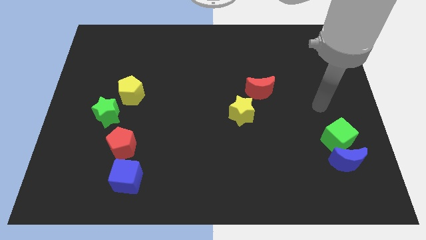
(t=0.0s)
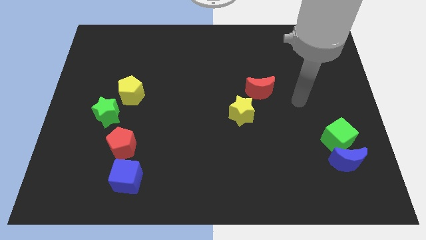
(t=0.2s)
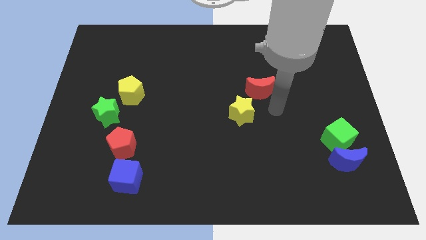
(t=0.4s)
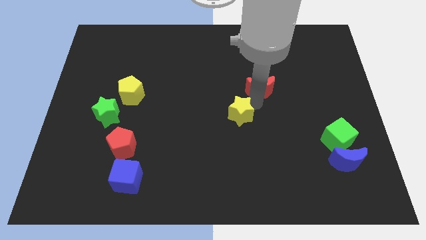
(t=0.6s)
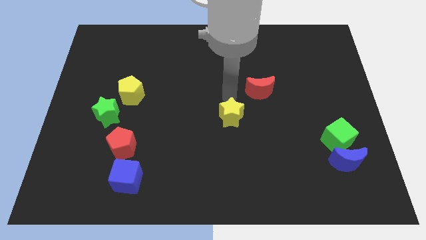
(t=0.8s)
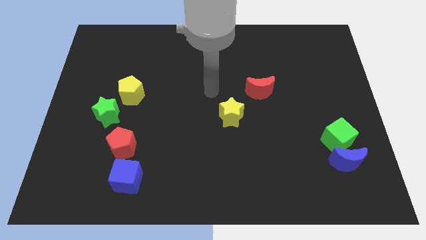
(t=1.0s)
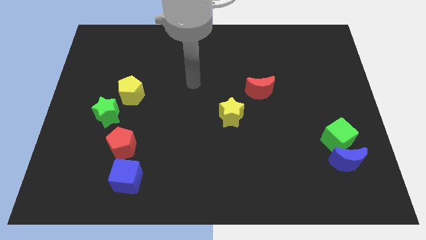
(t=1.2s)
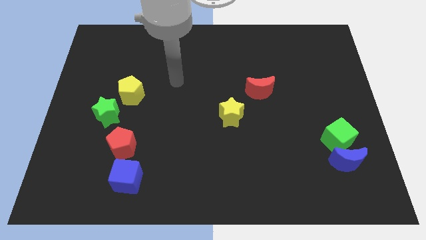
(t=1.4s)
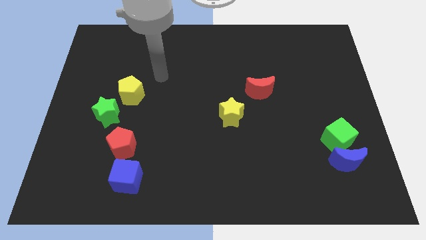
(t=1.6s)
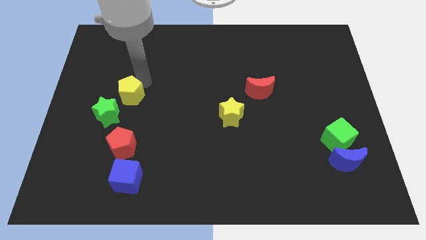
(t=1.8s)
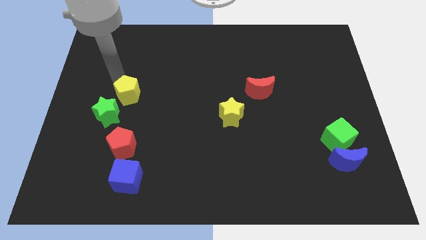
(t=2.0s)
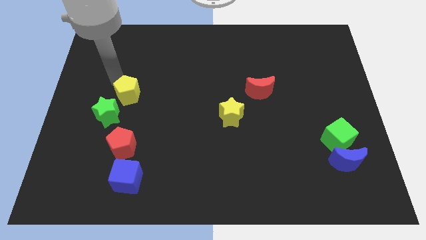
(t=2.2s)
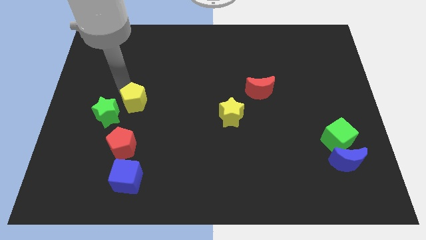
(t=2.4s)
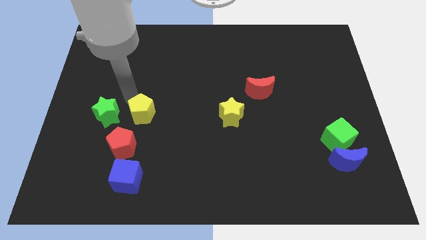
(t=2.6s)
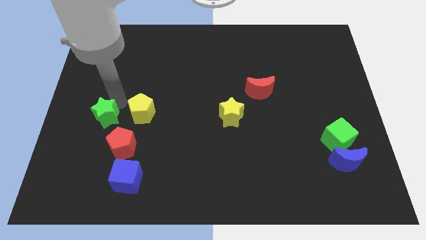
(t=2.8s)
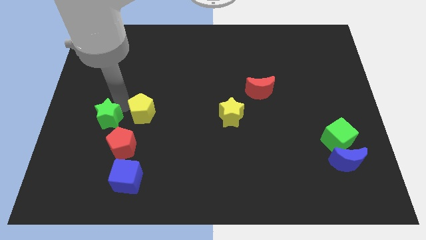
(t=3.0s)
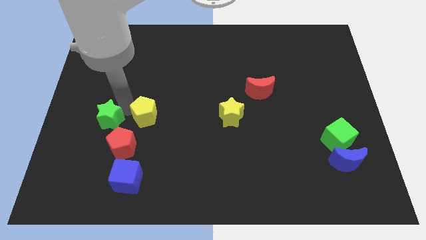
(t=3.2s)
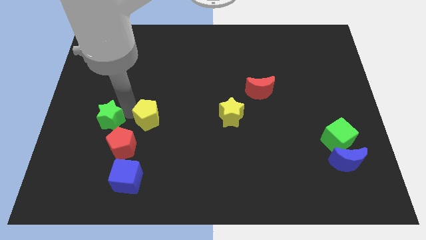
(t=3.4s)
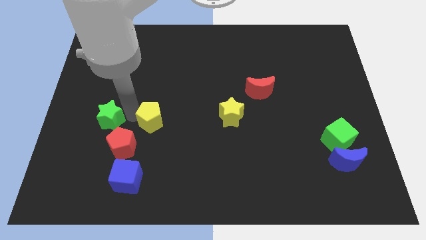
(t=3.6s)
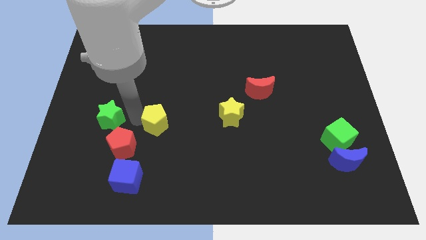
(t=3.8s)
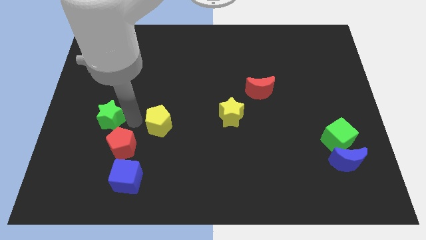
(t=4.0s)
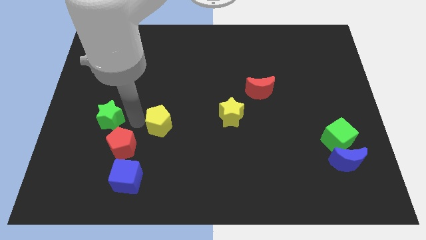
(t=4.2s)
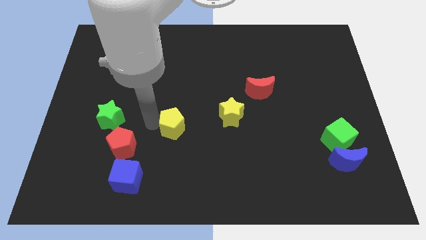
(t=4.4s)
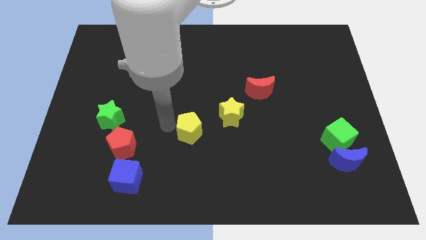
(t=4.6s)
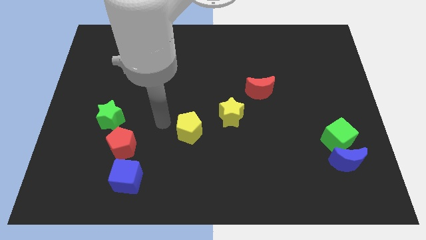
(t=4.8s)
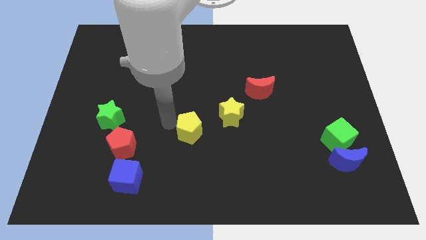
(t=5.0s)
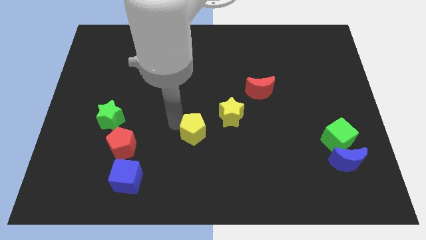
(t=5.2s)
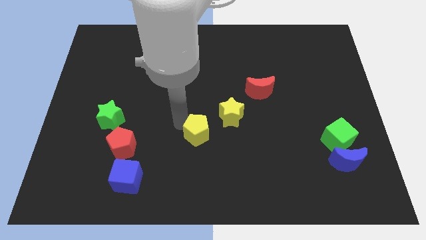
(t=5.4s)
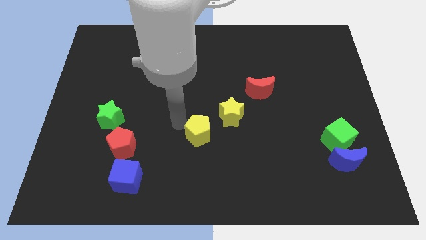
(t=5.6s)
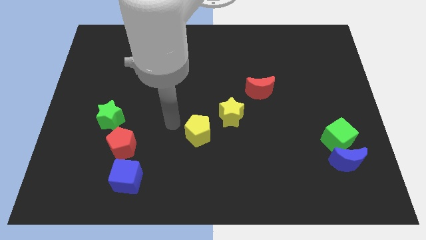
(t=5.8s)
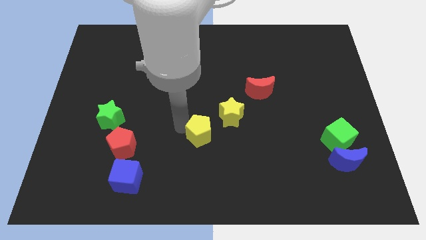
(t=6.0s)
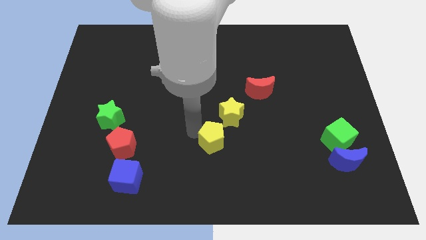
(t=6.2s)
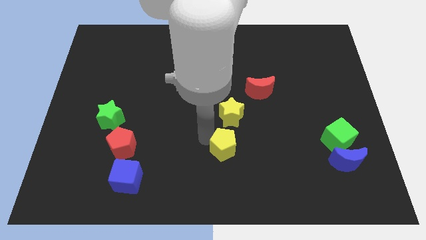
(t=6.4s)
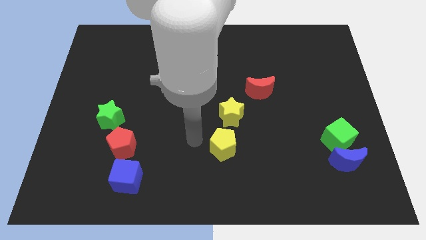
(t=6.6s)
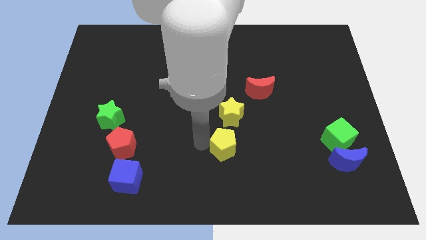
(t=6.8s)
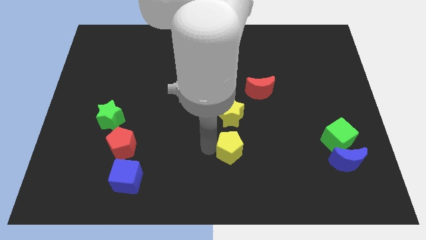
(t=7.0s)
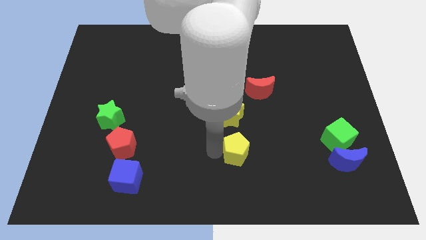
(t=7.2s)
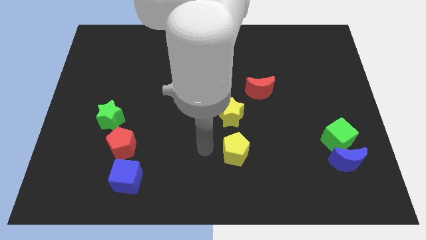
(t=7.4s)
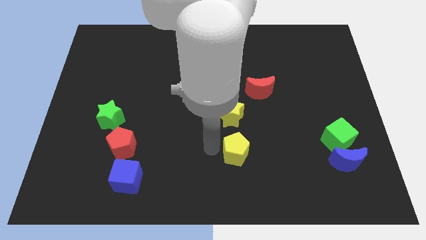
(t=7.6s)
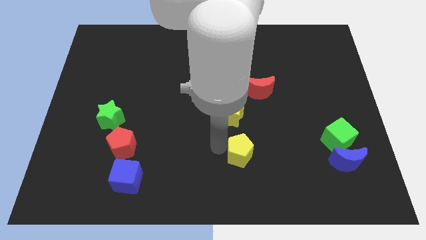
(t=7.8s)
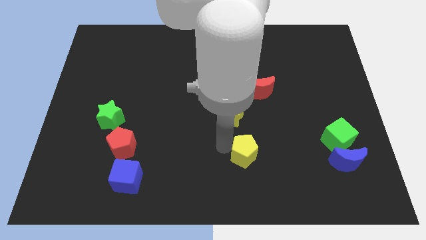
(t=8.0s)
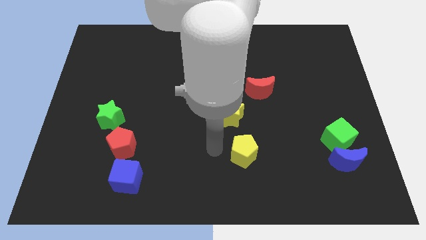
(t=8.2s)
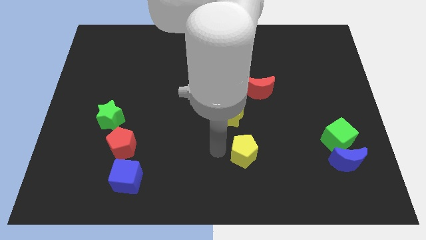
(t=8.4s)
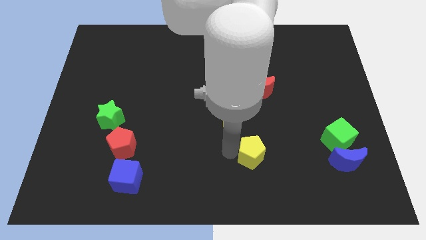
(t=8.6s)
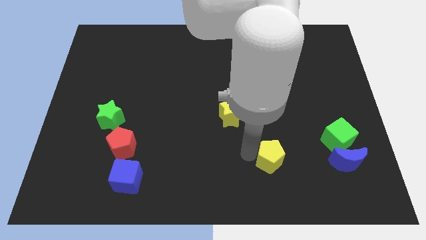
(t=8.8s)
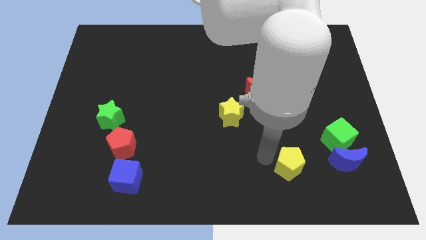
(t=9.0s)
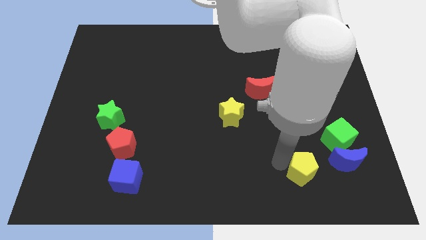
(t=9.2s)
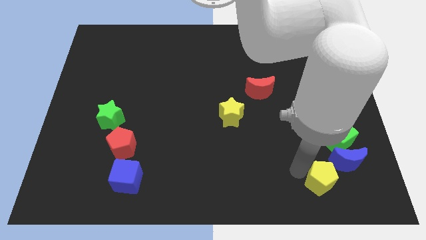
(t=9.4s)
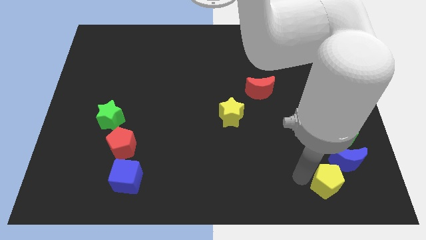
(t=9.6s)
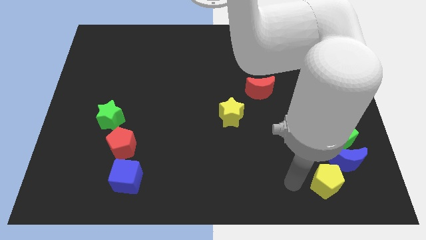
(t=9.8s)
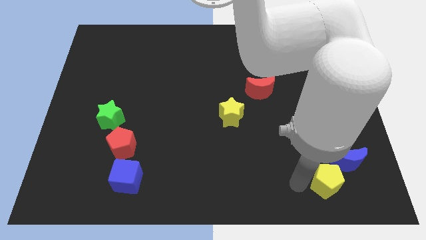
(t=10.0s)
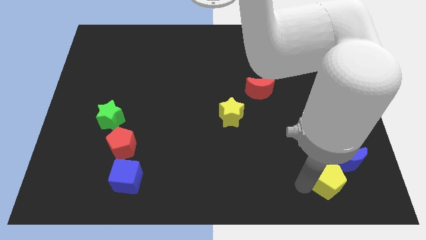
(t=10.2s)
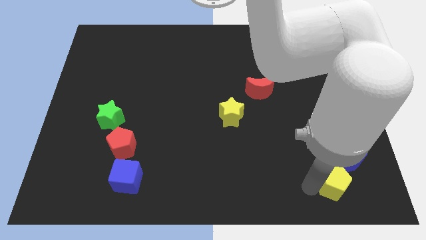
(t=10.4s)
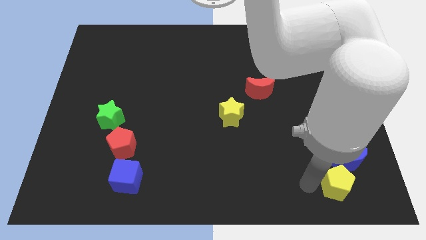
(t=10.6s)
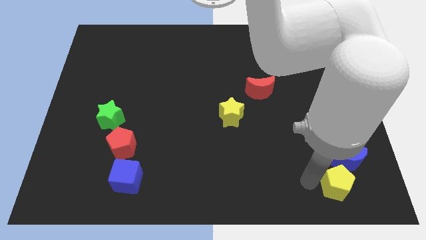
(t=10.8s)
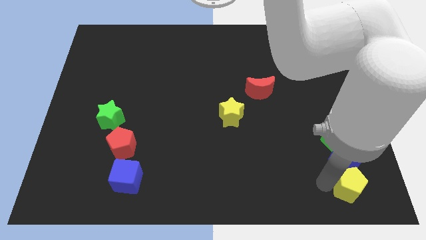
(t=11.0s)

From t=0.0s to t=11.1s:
push the yellow pentagon to the bottom right
